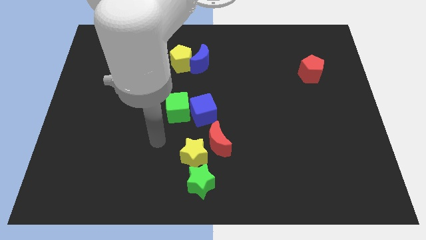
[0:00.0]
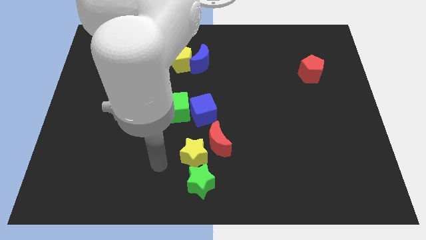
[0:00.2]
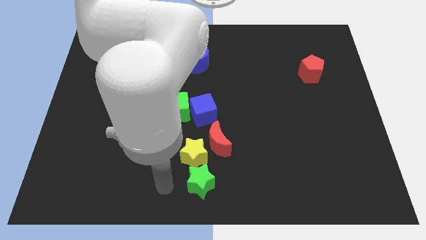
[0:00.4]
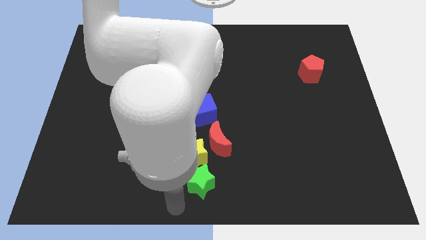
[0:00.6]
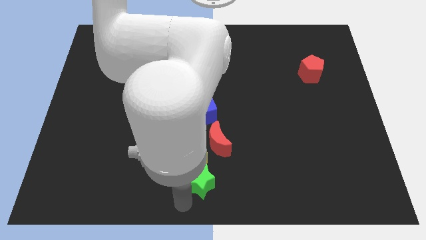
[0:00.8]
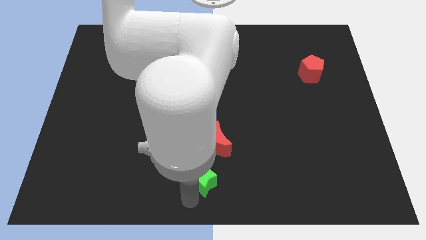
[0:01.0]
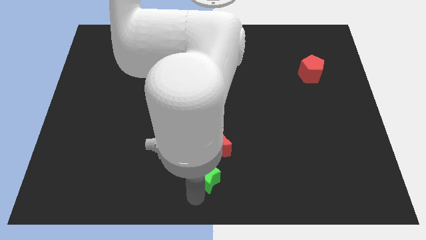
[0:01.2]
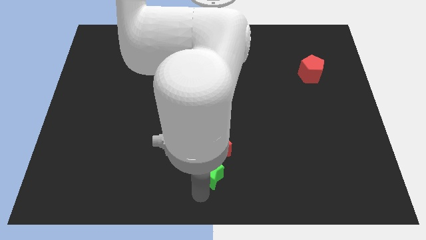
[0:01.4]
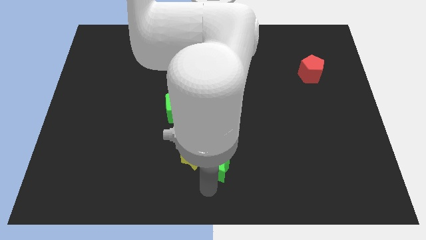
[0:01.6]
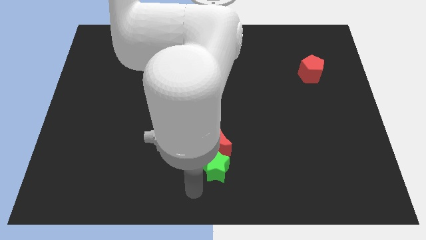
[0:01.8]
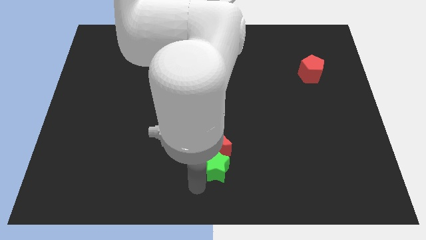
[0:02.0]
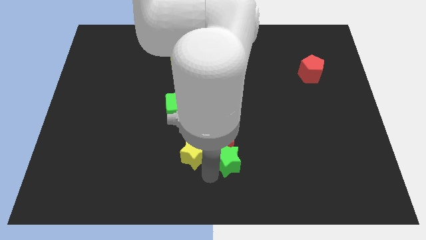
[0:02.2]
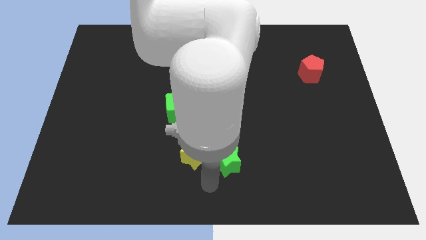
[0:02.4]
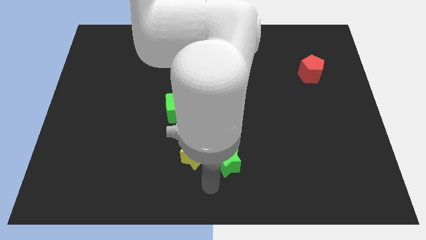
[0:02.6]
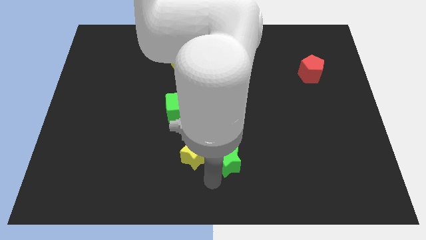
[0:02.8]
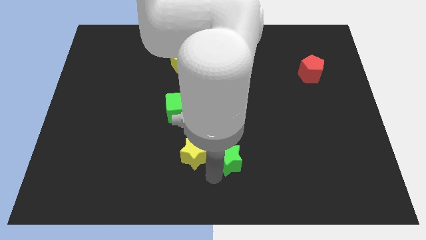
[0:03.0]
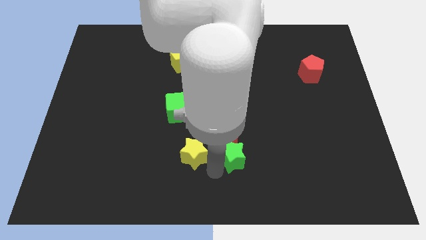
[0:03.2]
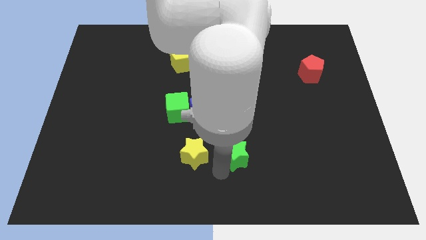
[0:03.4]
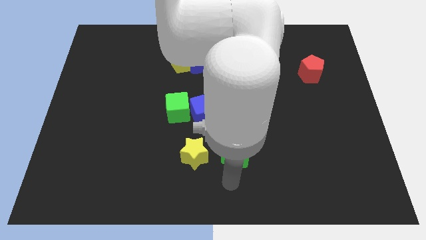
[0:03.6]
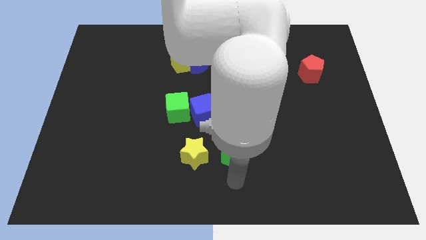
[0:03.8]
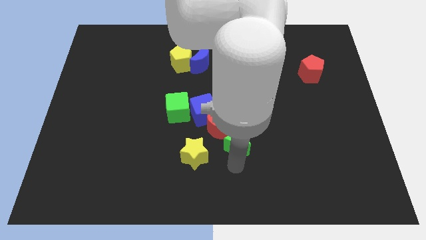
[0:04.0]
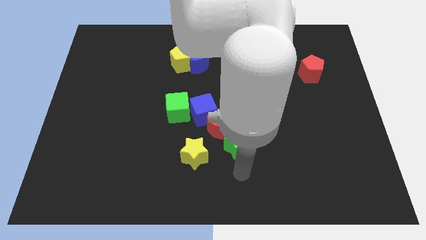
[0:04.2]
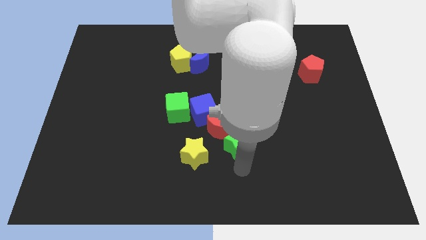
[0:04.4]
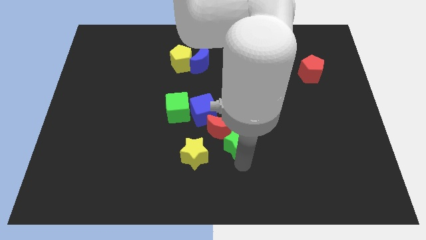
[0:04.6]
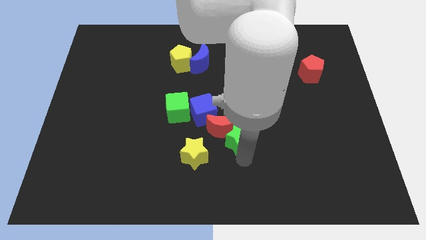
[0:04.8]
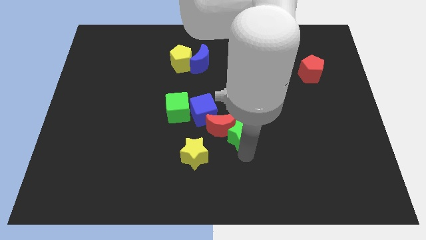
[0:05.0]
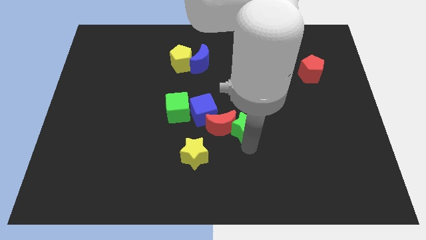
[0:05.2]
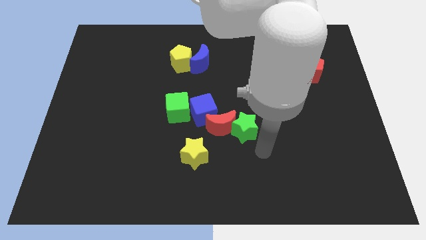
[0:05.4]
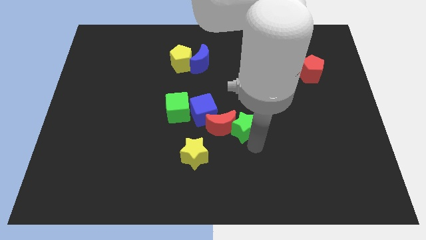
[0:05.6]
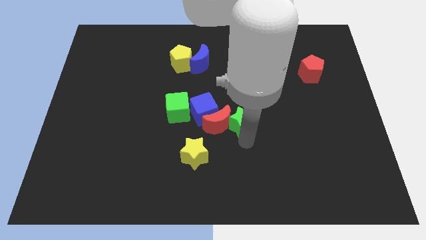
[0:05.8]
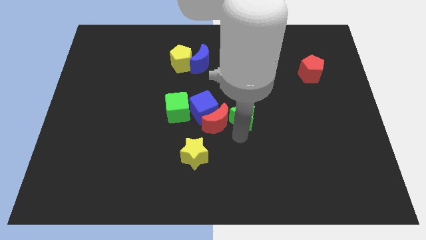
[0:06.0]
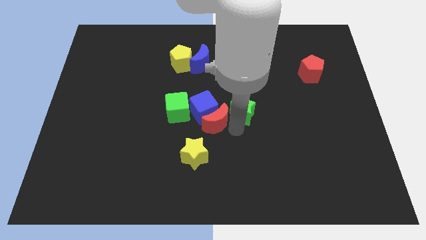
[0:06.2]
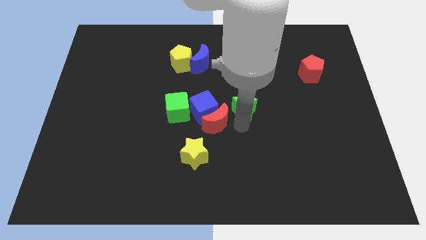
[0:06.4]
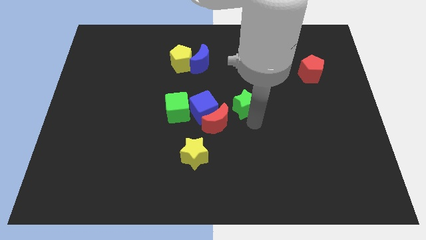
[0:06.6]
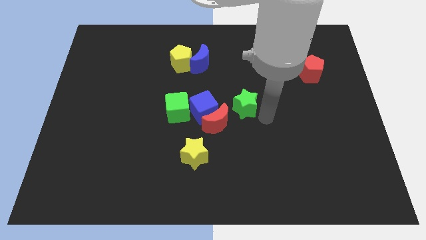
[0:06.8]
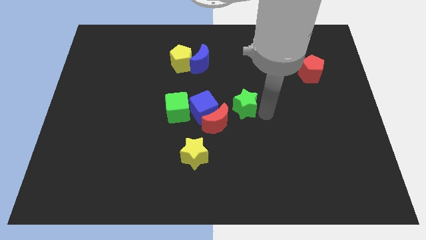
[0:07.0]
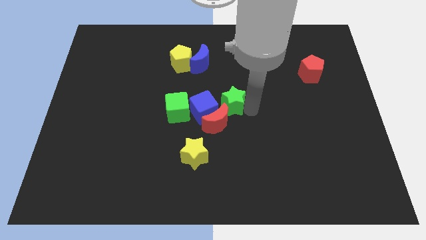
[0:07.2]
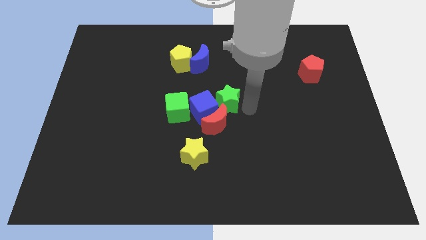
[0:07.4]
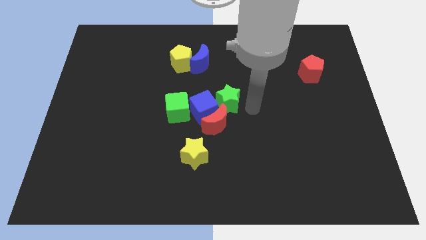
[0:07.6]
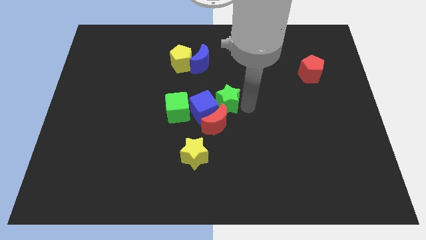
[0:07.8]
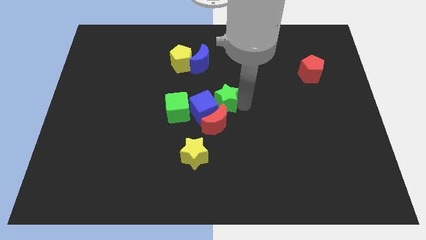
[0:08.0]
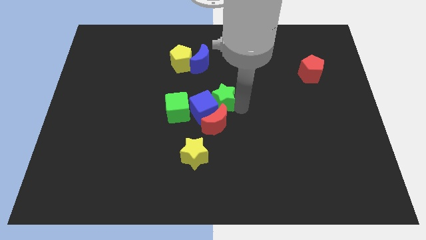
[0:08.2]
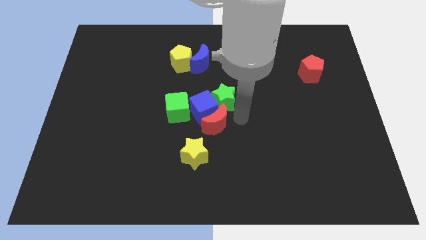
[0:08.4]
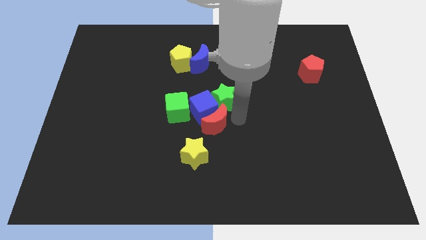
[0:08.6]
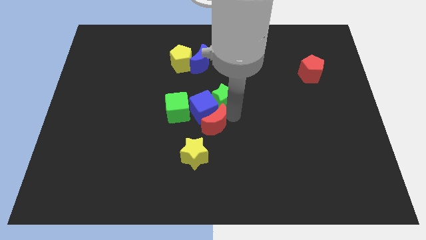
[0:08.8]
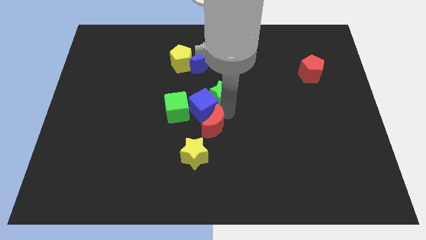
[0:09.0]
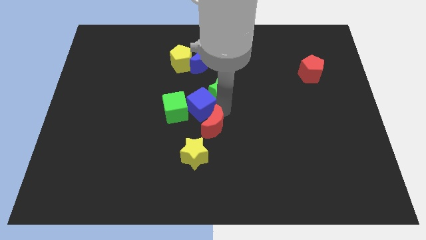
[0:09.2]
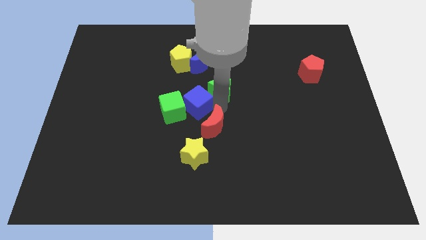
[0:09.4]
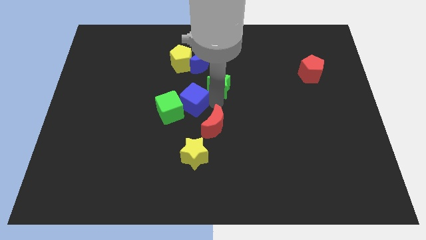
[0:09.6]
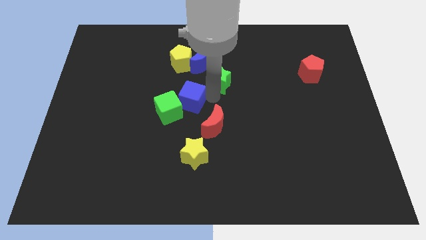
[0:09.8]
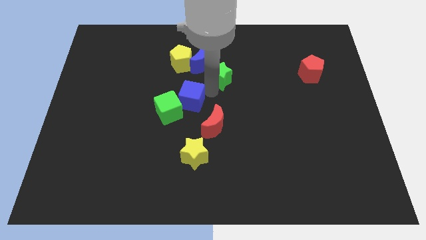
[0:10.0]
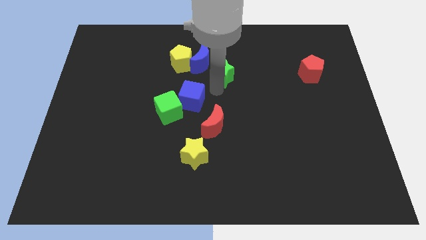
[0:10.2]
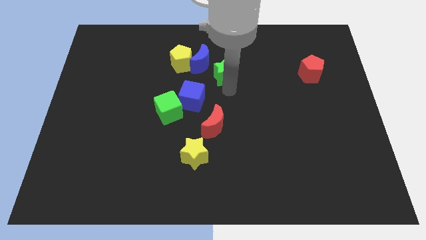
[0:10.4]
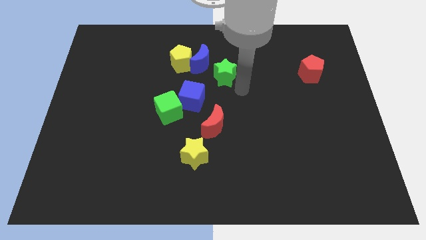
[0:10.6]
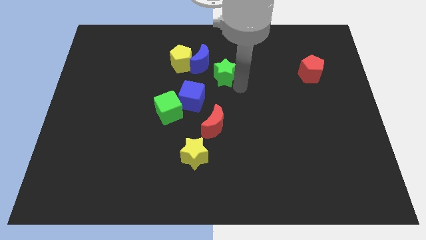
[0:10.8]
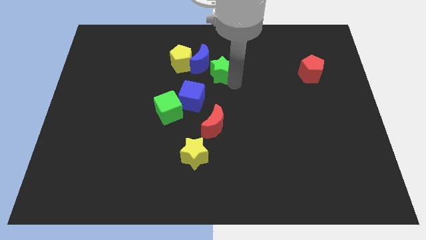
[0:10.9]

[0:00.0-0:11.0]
put the green star next to the blue moon

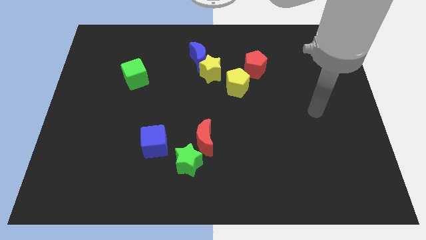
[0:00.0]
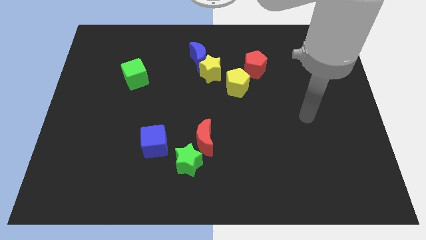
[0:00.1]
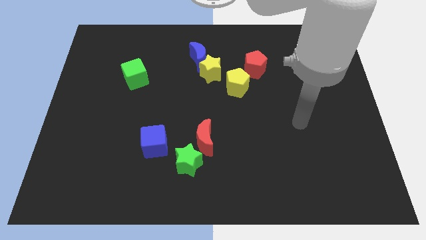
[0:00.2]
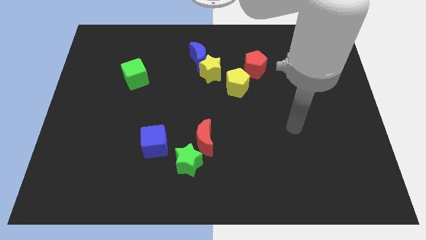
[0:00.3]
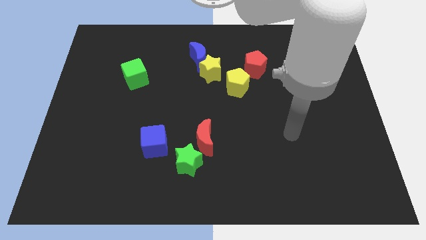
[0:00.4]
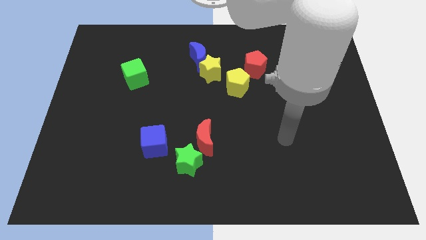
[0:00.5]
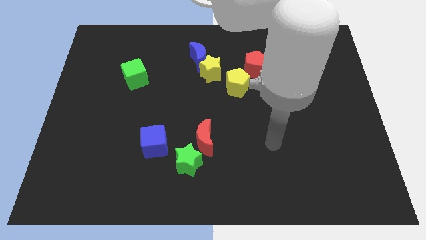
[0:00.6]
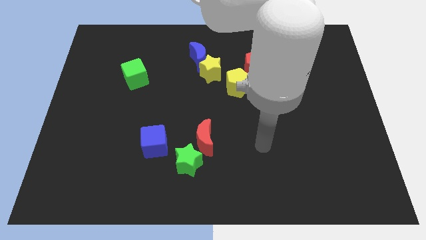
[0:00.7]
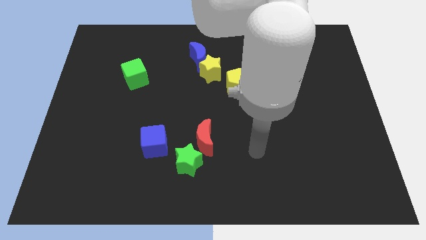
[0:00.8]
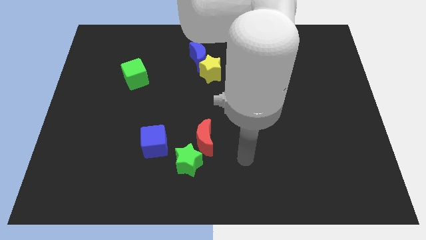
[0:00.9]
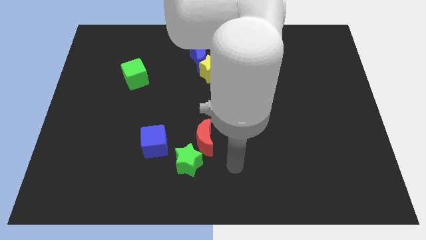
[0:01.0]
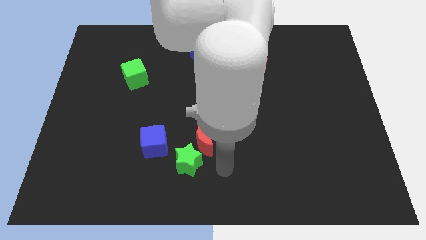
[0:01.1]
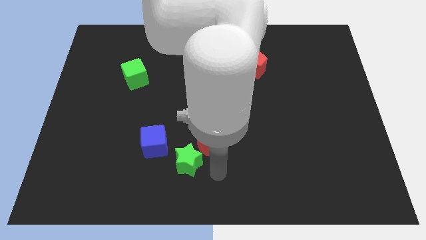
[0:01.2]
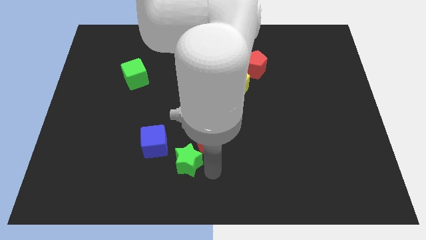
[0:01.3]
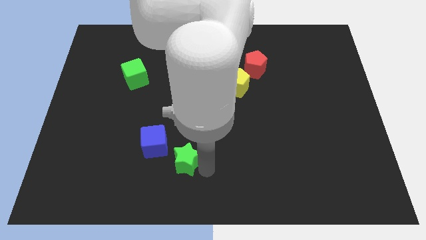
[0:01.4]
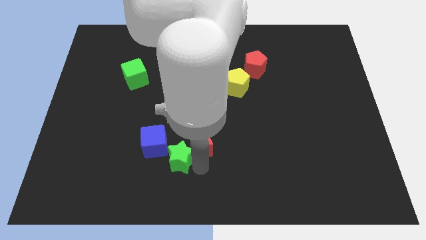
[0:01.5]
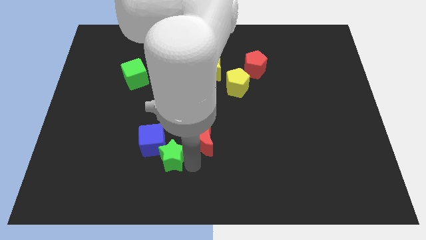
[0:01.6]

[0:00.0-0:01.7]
put the green star next to the blue cube

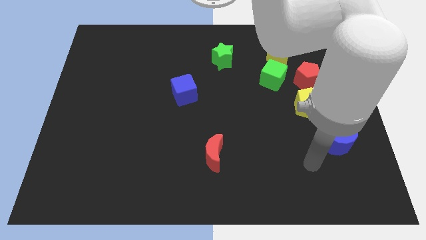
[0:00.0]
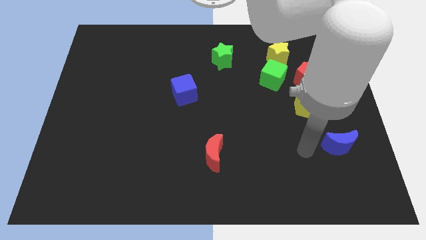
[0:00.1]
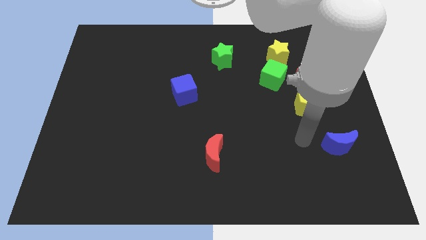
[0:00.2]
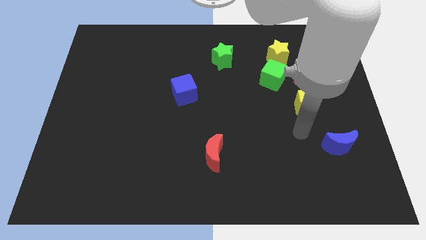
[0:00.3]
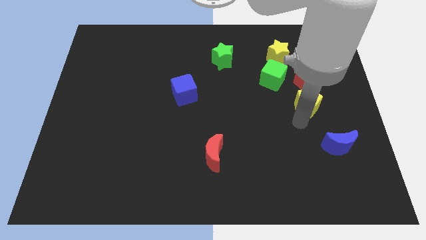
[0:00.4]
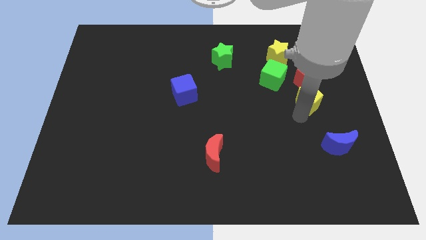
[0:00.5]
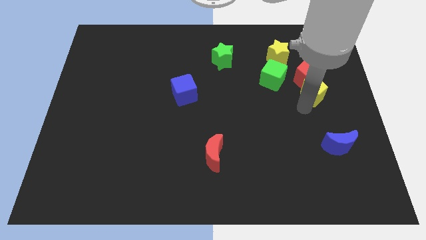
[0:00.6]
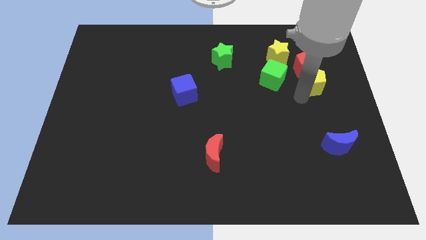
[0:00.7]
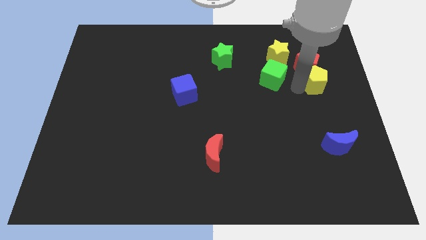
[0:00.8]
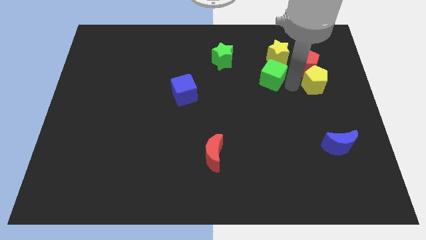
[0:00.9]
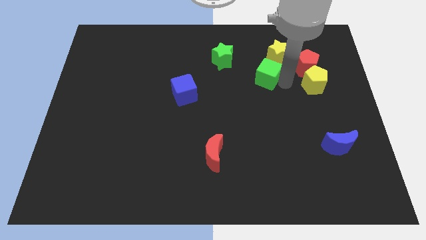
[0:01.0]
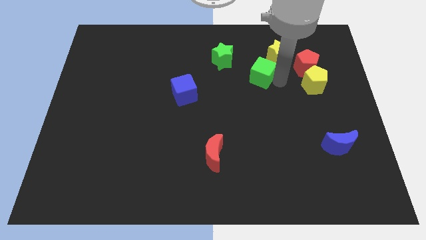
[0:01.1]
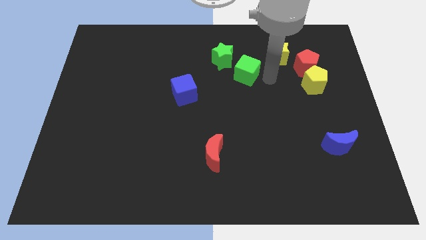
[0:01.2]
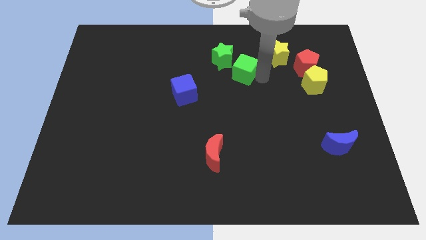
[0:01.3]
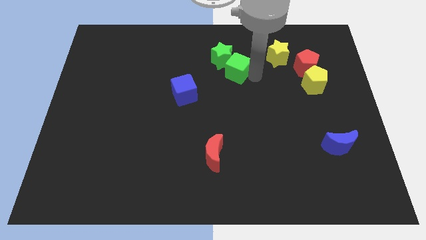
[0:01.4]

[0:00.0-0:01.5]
push the green cube next to the green star
